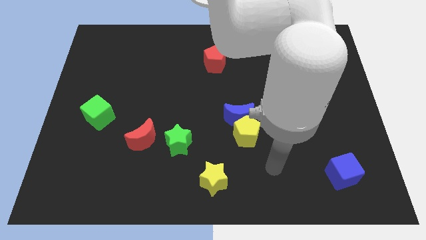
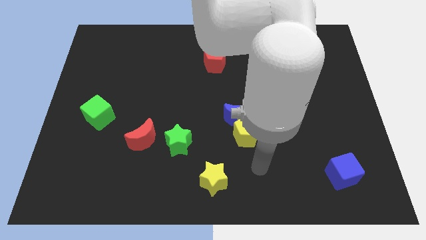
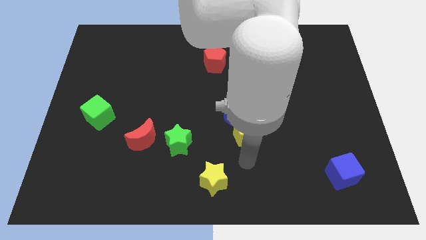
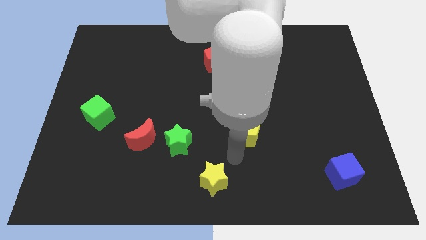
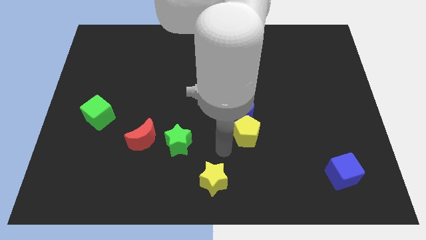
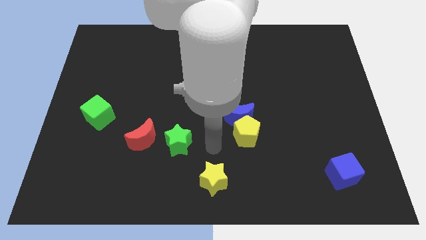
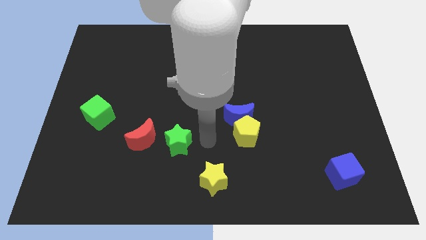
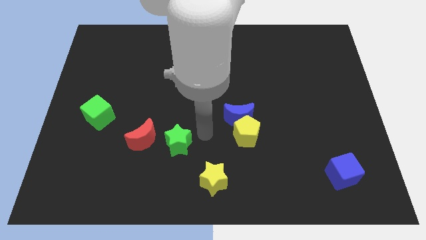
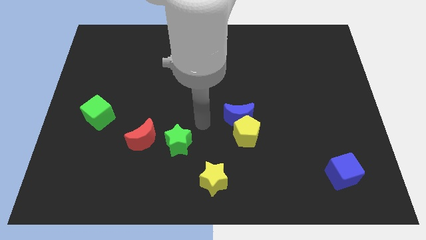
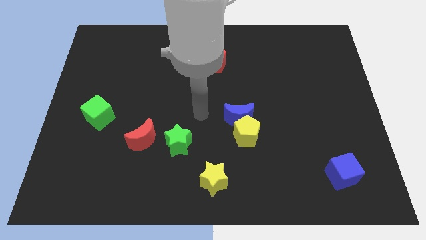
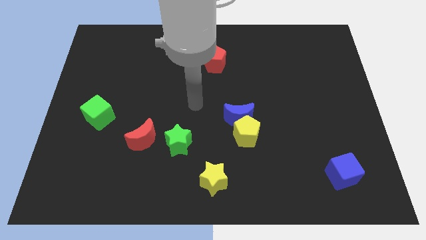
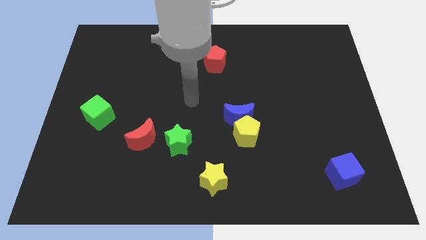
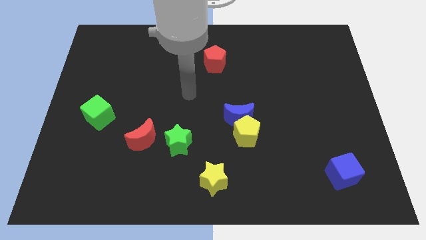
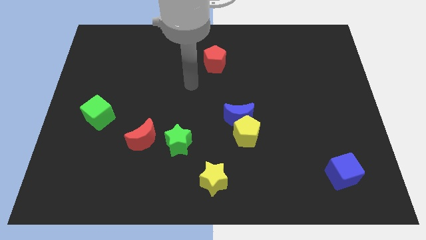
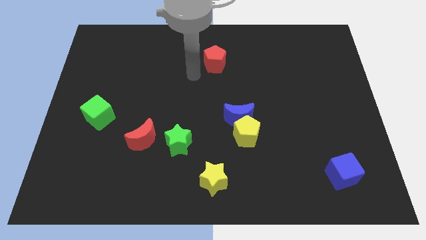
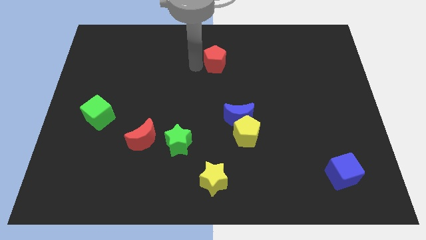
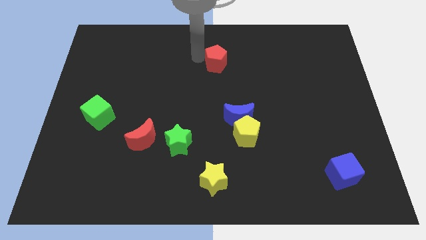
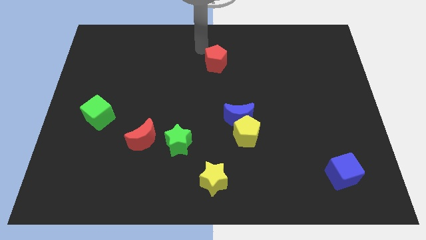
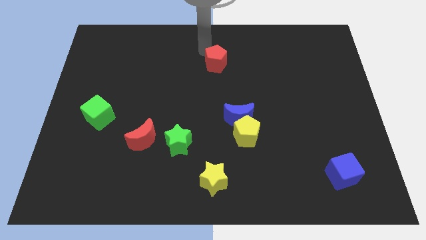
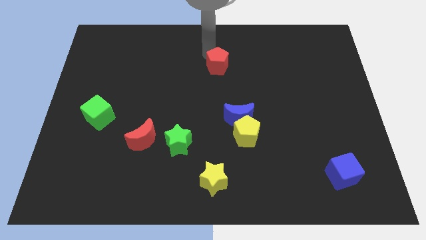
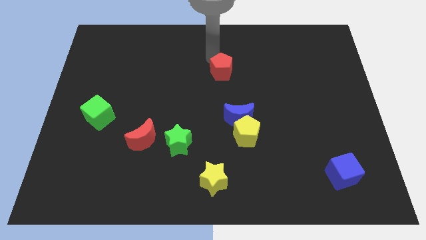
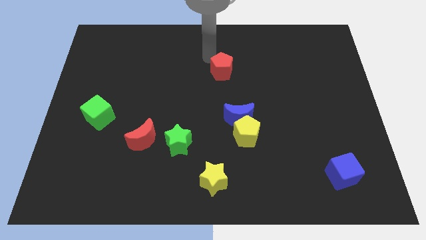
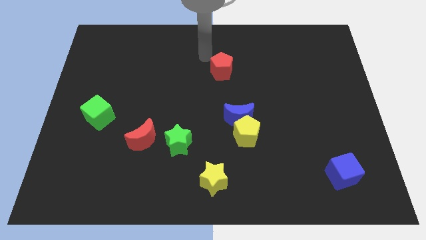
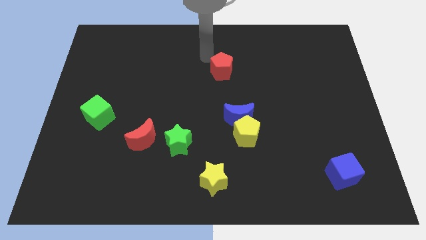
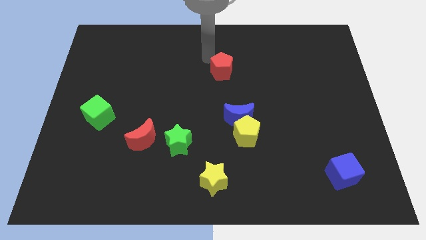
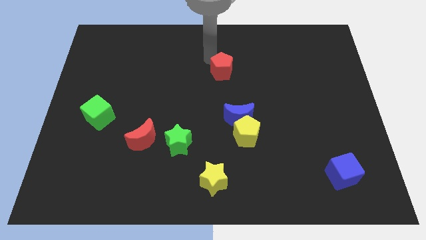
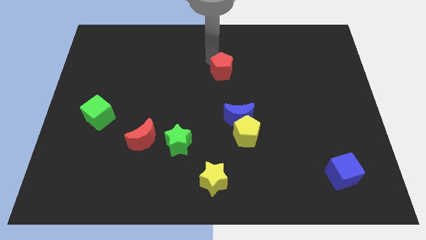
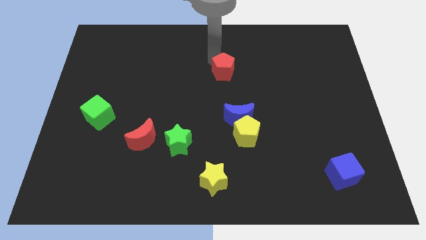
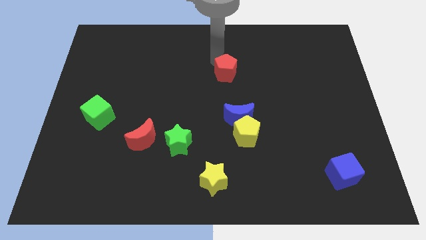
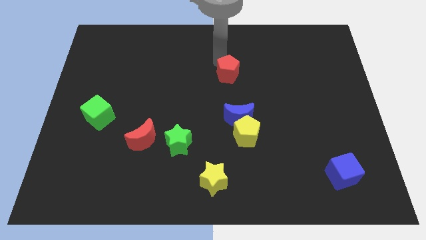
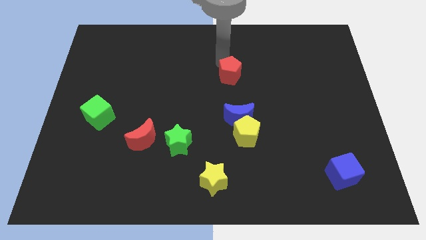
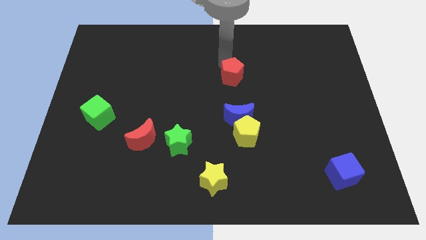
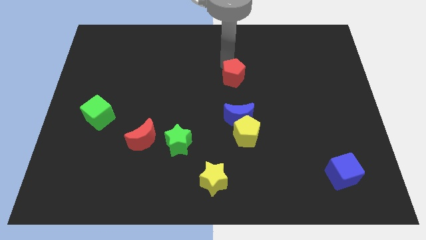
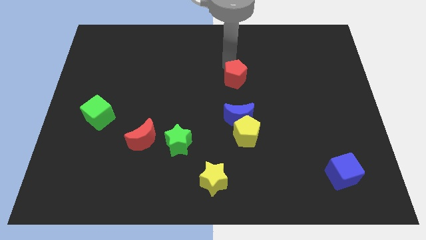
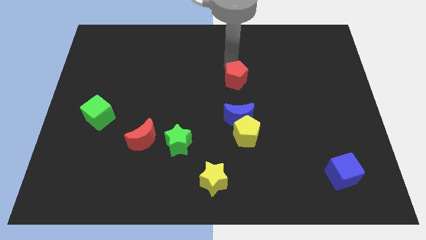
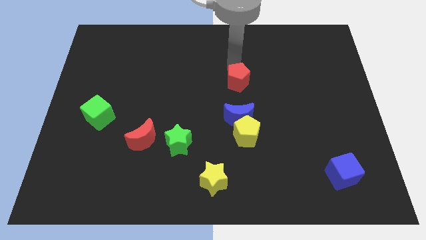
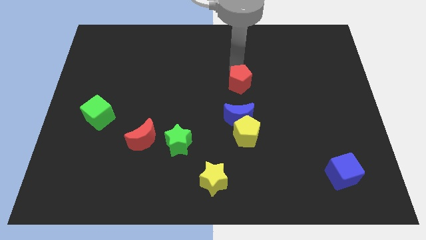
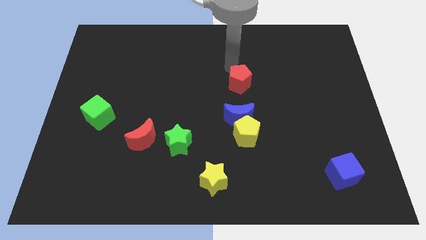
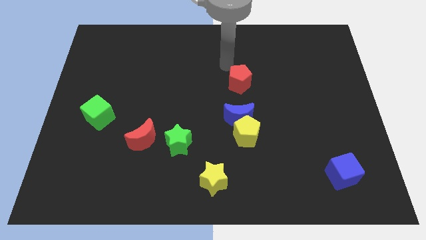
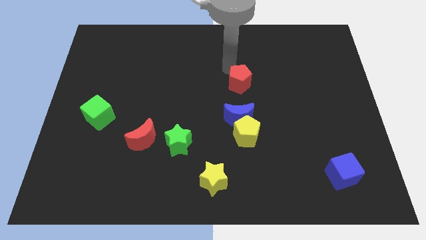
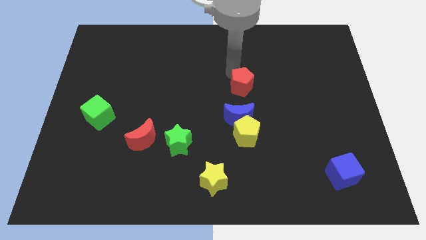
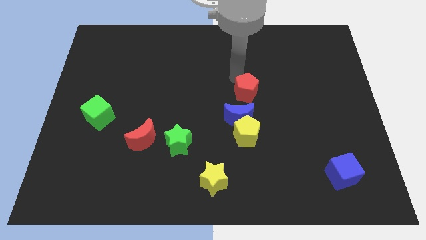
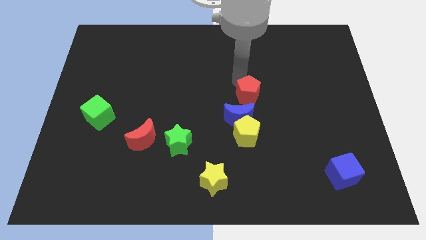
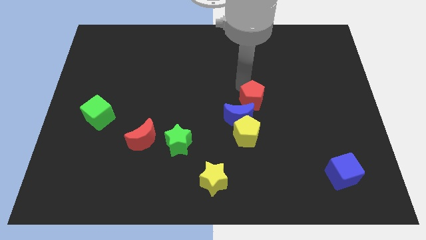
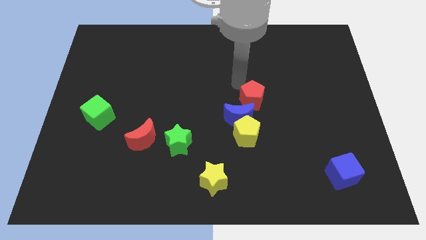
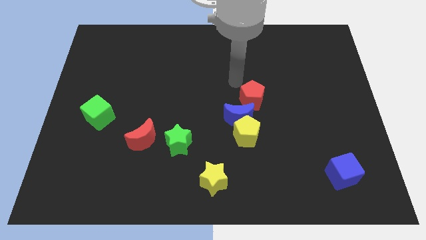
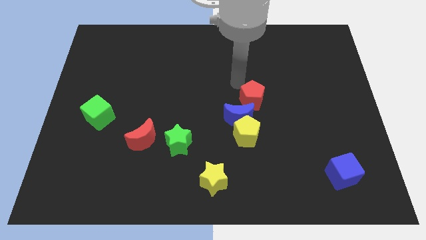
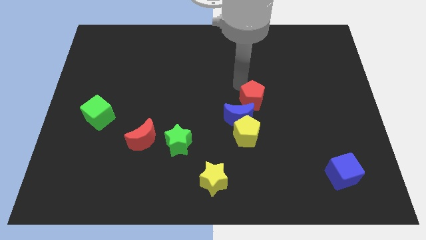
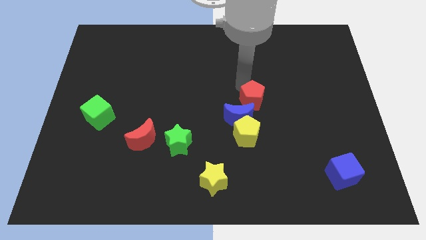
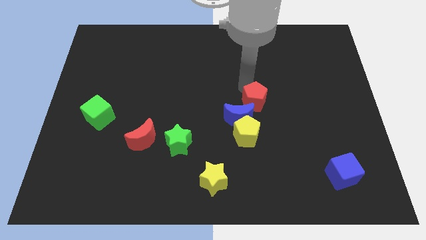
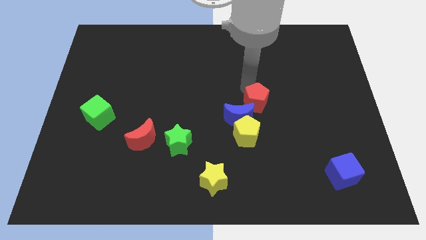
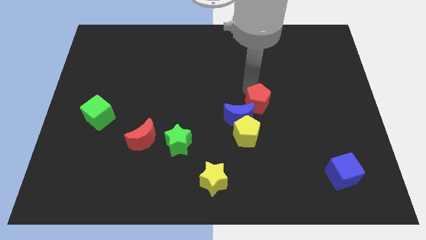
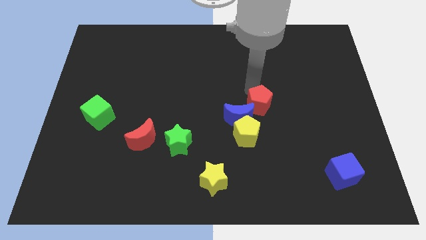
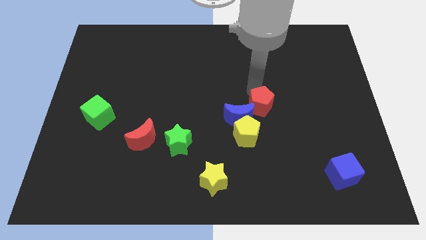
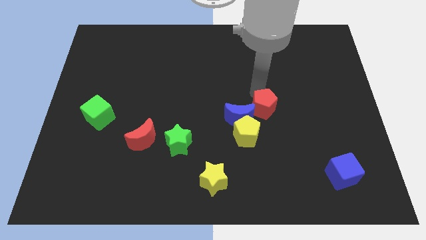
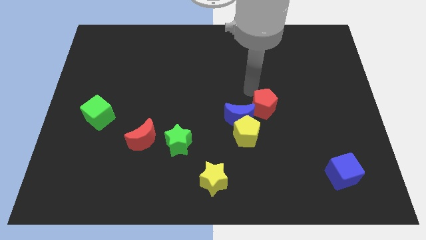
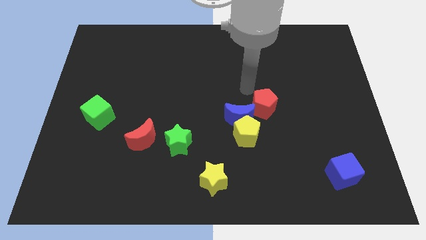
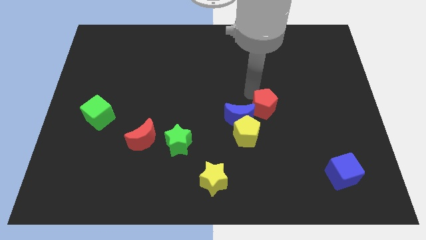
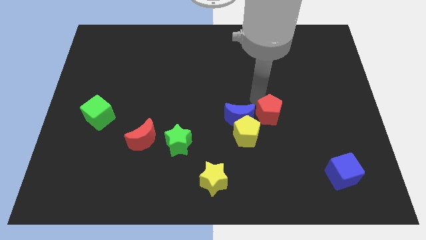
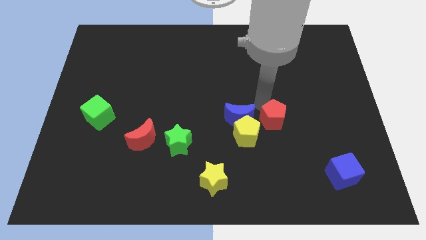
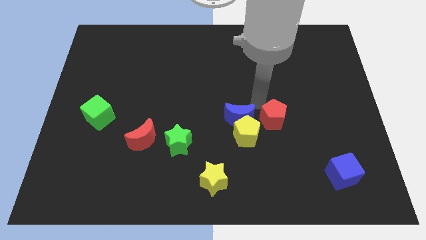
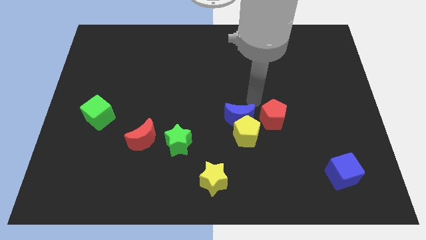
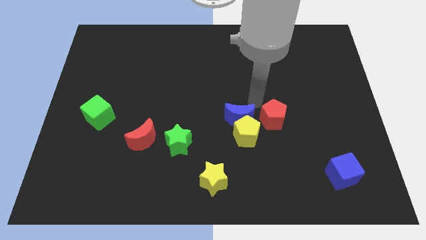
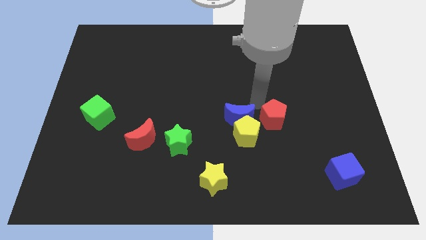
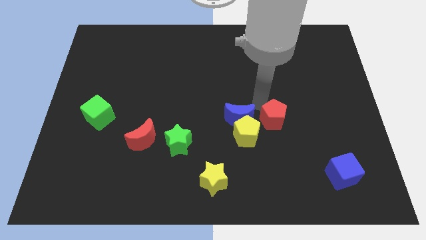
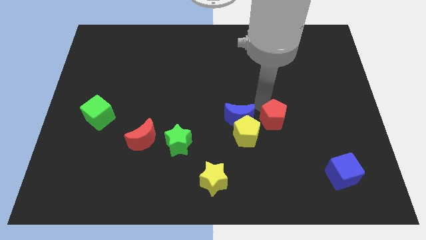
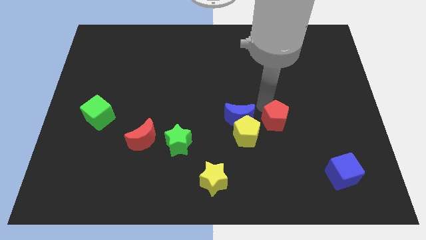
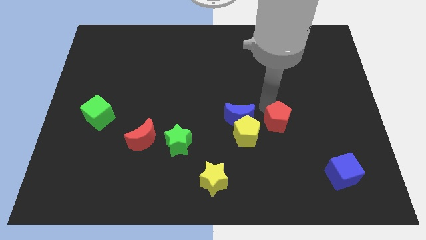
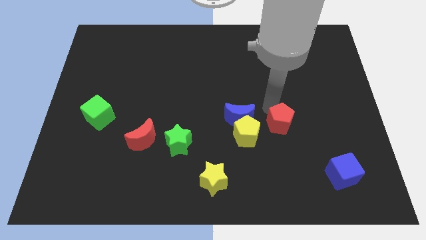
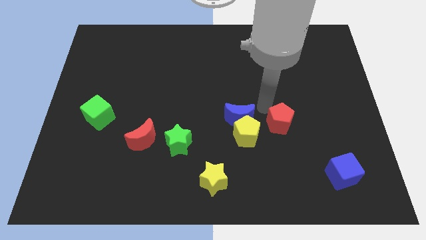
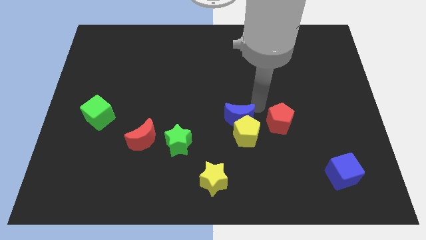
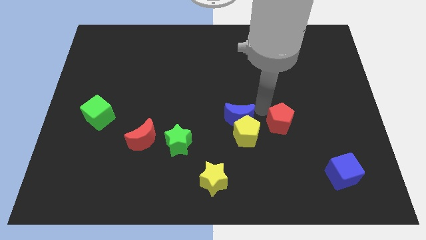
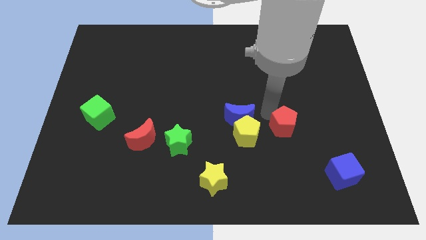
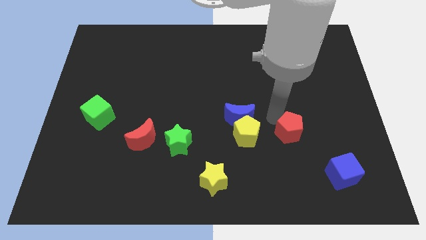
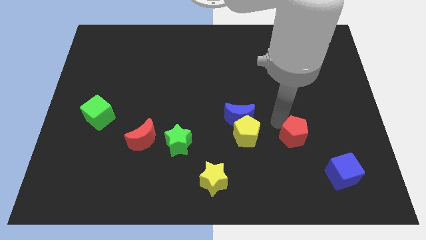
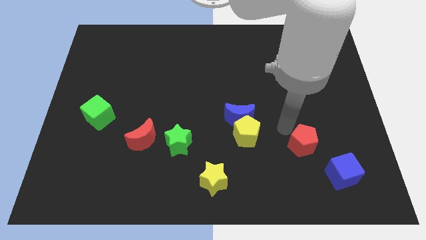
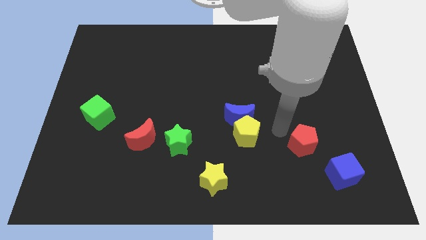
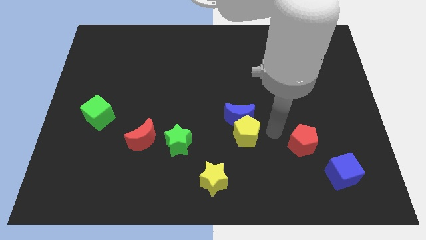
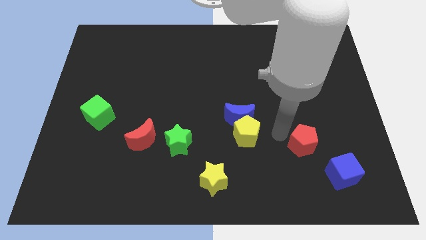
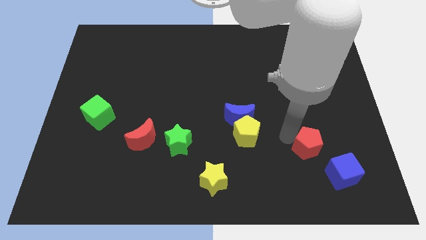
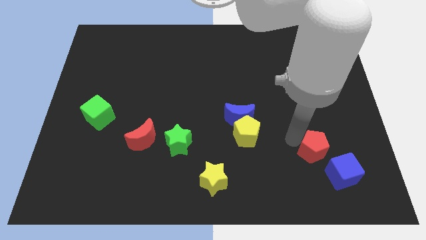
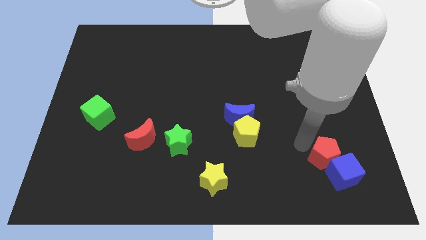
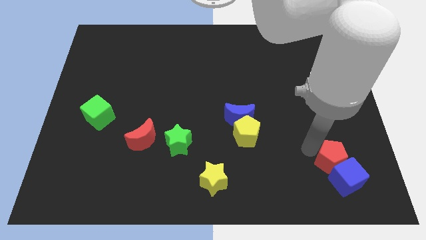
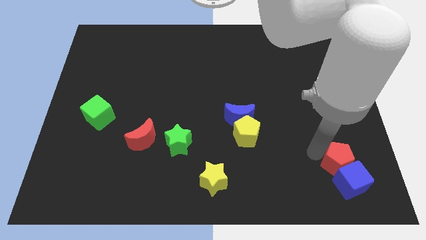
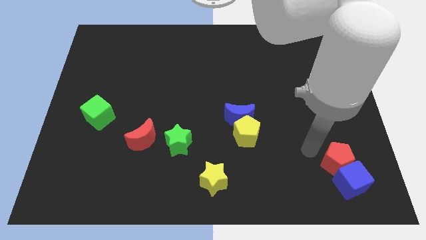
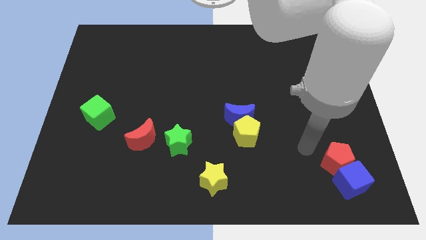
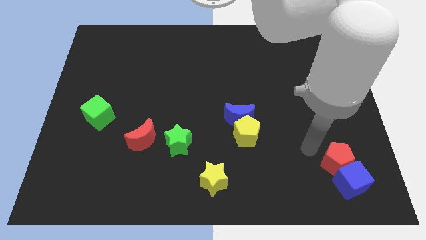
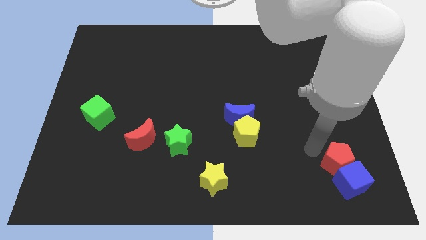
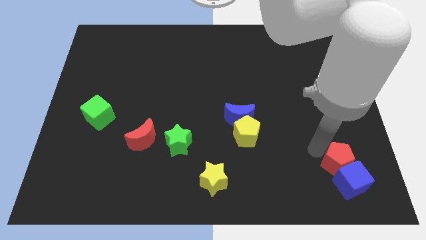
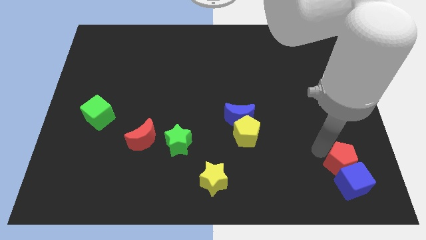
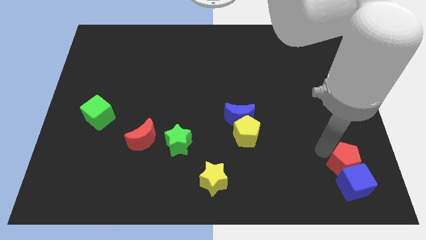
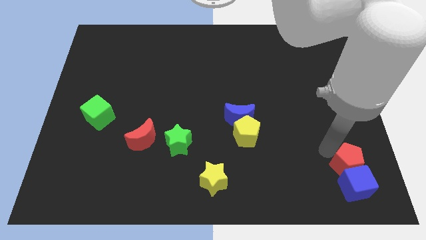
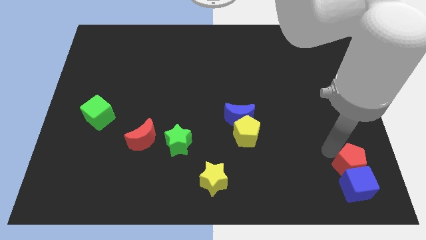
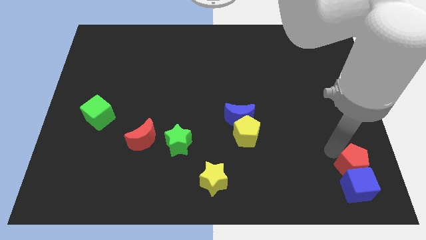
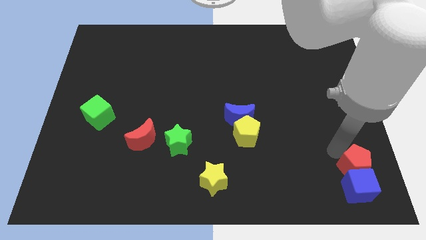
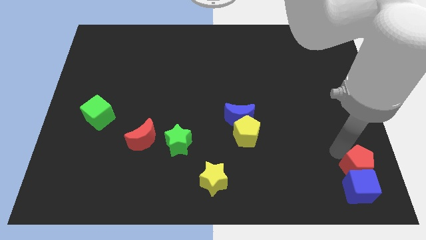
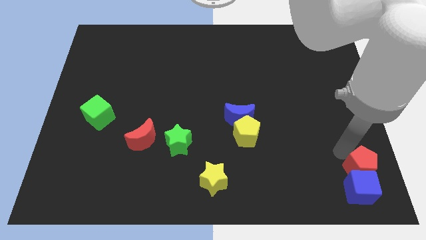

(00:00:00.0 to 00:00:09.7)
move the red pentagon to the bottom right of the board
